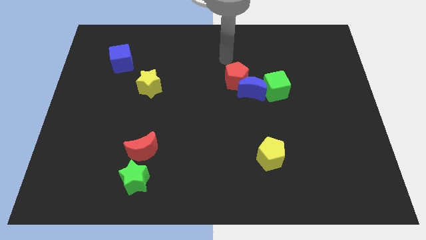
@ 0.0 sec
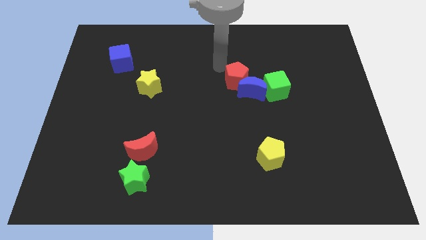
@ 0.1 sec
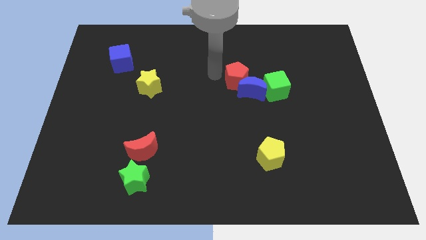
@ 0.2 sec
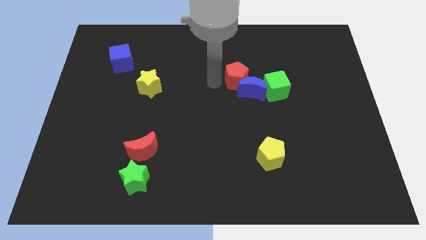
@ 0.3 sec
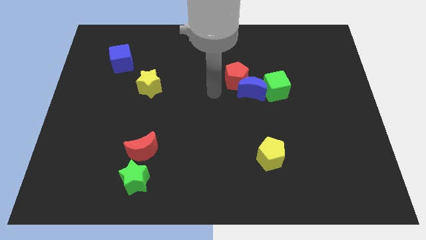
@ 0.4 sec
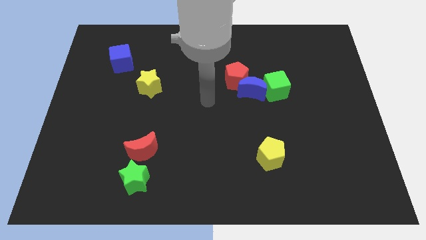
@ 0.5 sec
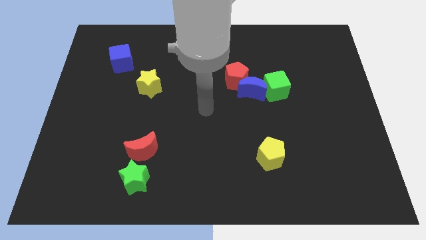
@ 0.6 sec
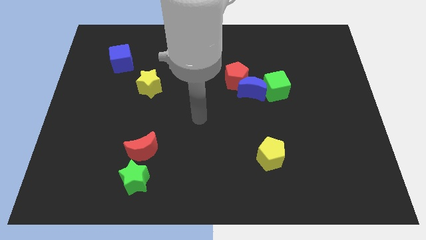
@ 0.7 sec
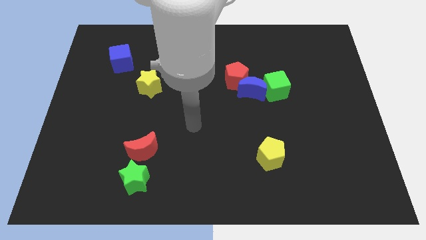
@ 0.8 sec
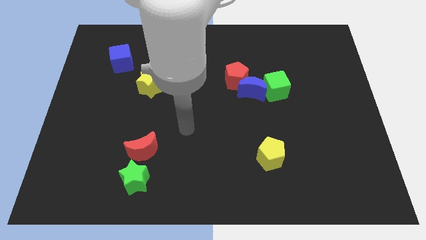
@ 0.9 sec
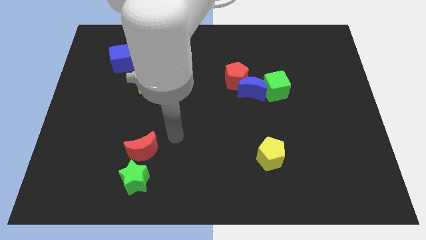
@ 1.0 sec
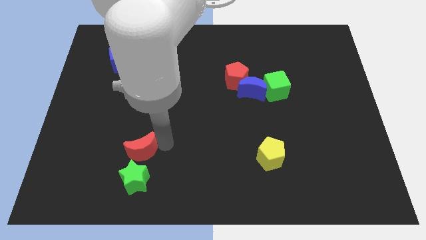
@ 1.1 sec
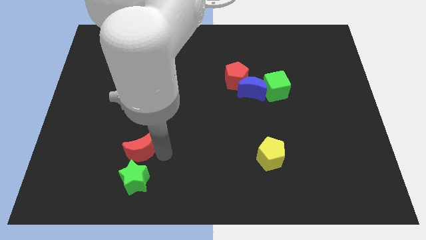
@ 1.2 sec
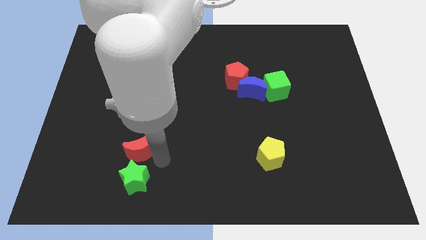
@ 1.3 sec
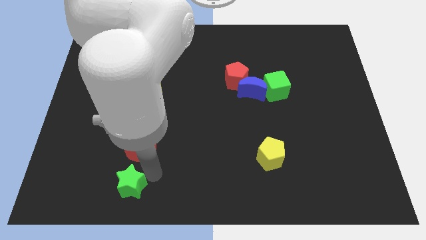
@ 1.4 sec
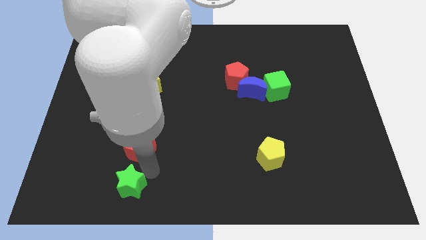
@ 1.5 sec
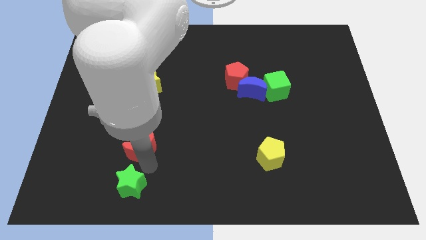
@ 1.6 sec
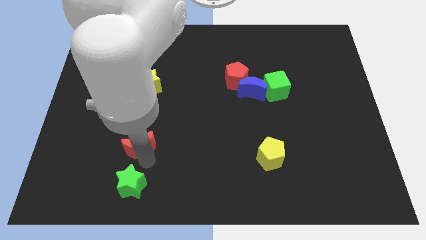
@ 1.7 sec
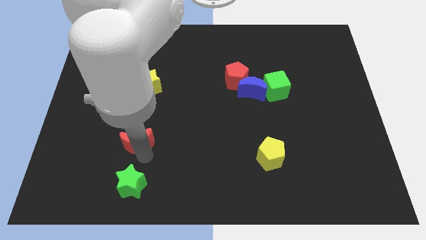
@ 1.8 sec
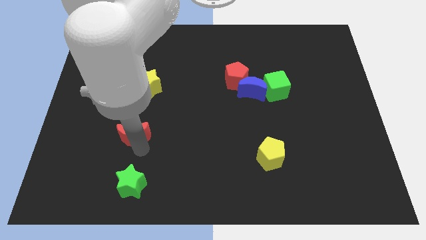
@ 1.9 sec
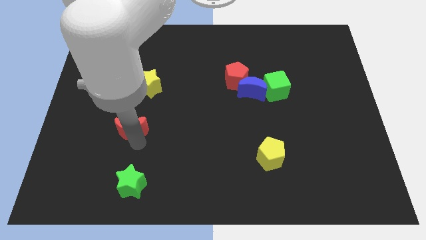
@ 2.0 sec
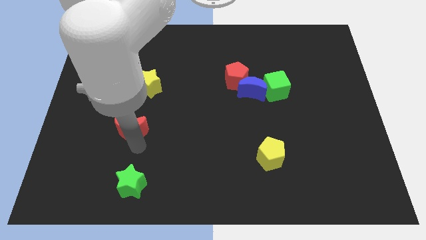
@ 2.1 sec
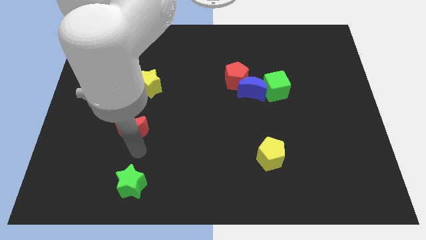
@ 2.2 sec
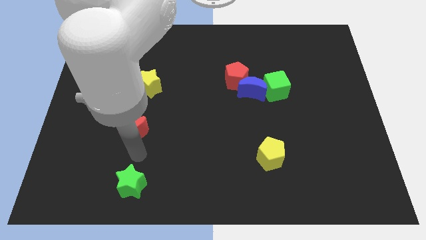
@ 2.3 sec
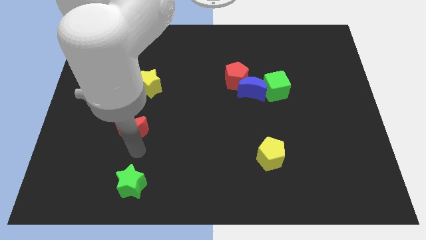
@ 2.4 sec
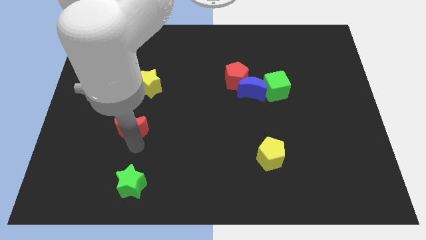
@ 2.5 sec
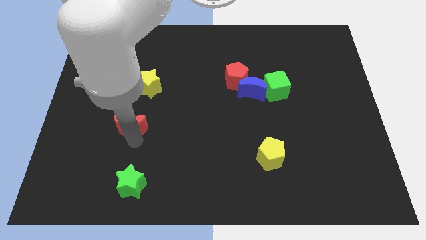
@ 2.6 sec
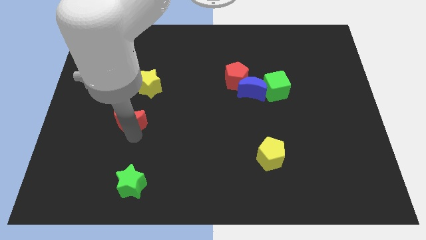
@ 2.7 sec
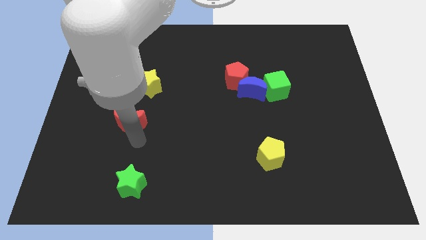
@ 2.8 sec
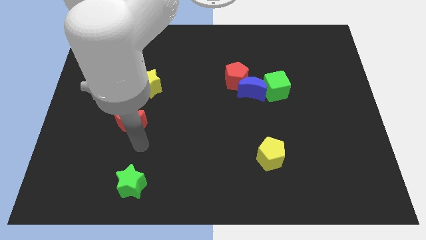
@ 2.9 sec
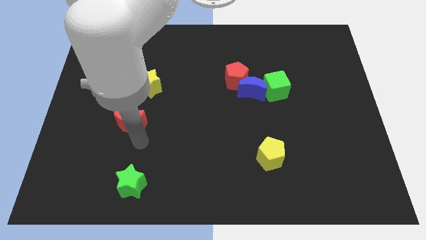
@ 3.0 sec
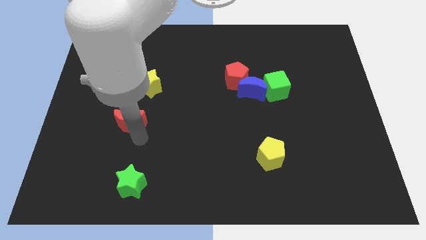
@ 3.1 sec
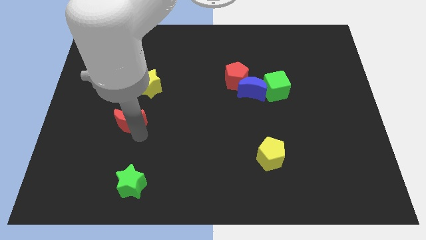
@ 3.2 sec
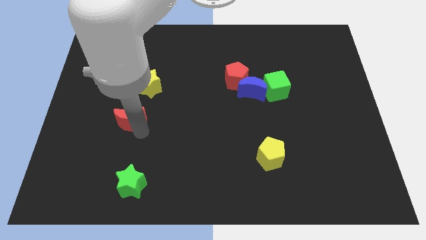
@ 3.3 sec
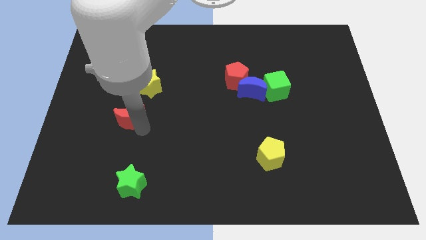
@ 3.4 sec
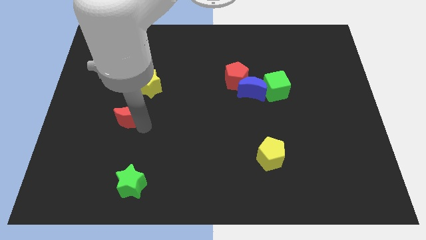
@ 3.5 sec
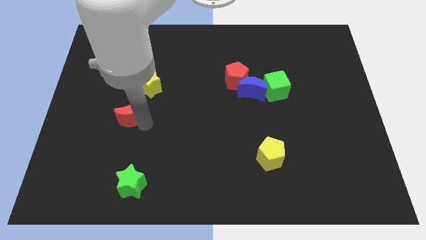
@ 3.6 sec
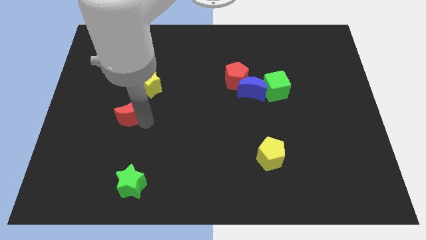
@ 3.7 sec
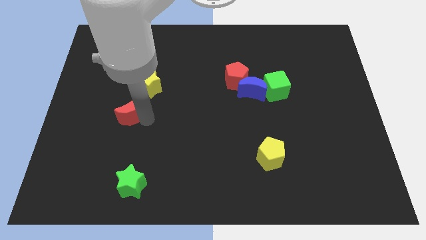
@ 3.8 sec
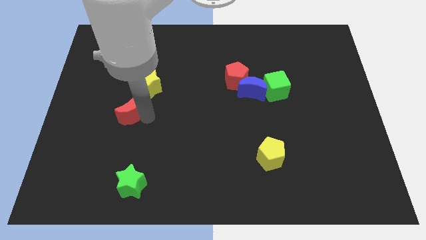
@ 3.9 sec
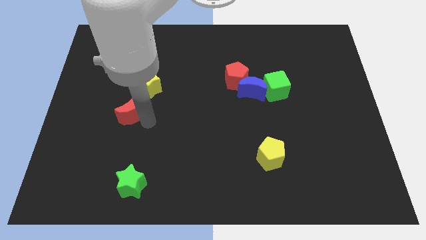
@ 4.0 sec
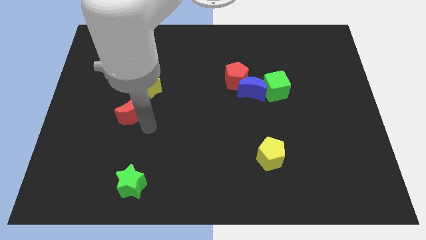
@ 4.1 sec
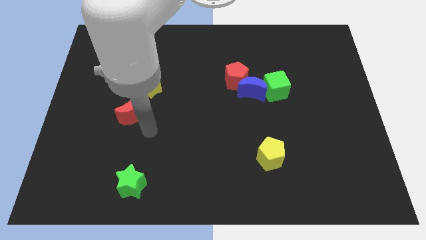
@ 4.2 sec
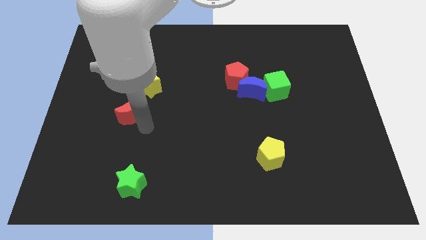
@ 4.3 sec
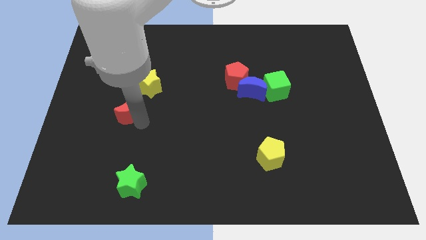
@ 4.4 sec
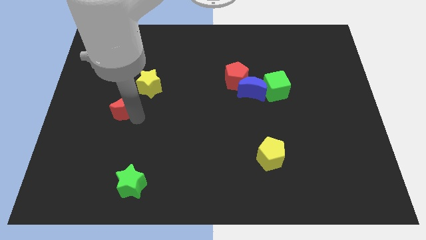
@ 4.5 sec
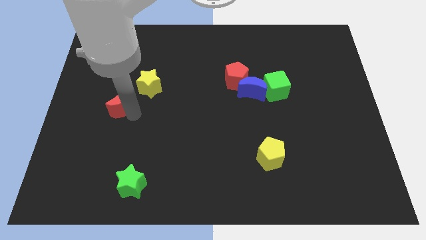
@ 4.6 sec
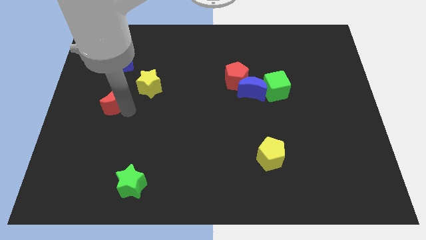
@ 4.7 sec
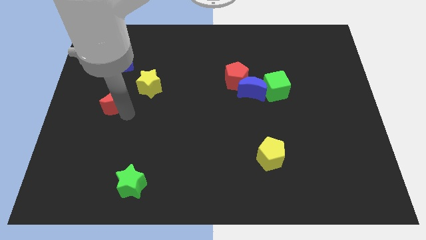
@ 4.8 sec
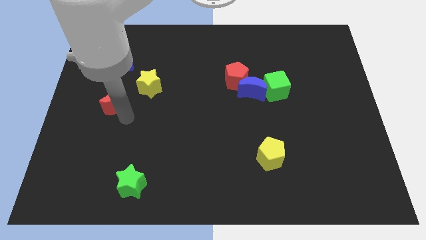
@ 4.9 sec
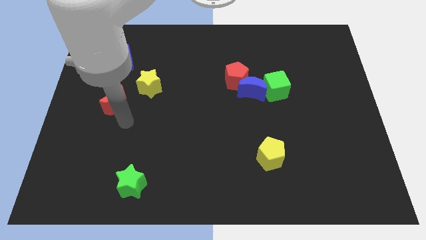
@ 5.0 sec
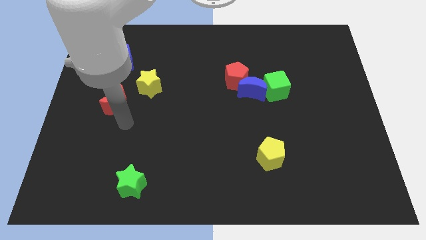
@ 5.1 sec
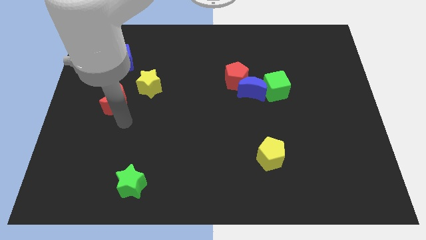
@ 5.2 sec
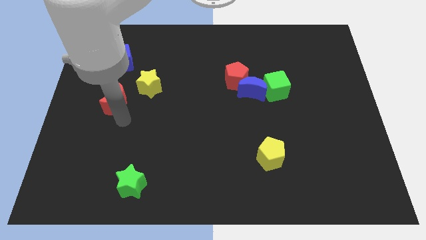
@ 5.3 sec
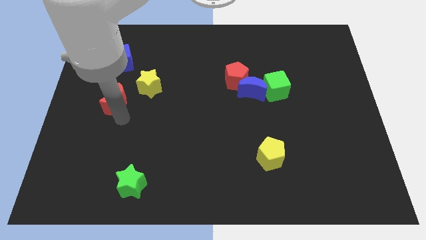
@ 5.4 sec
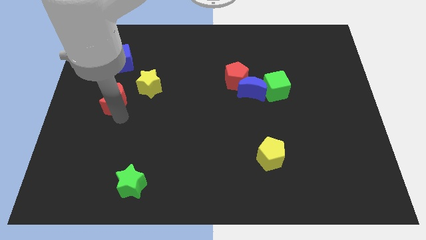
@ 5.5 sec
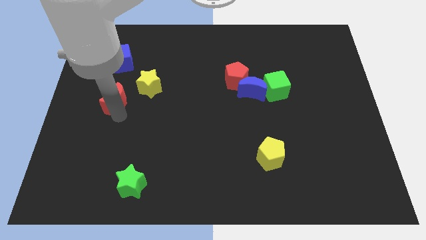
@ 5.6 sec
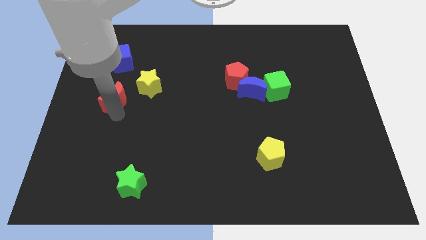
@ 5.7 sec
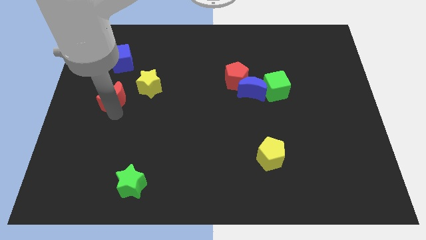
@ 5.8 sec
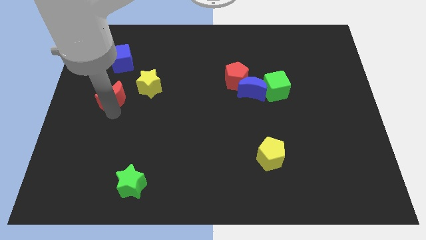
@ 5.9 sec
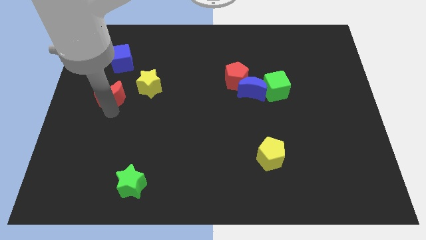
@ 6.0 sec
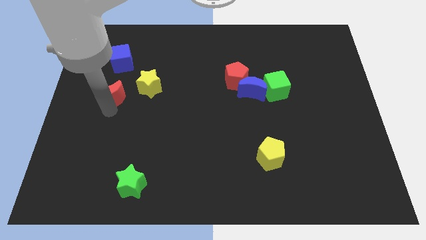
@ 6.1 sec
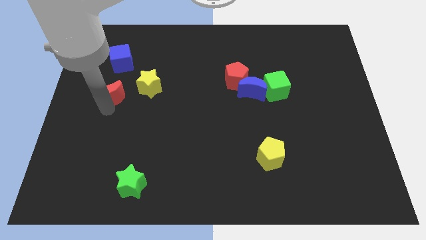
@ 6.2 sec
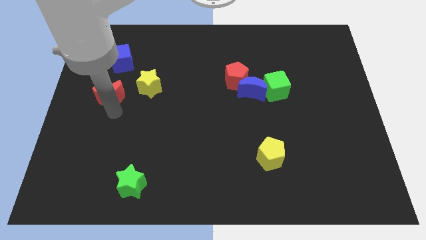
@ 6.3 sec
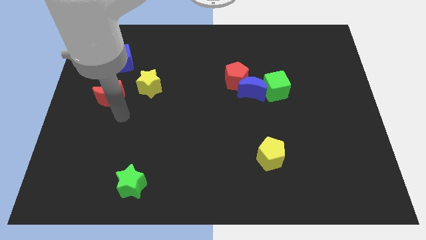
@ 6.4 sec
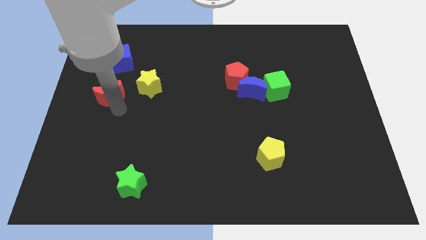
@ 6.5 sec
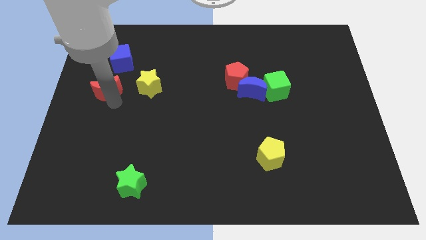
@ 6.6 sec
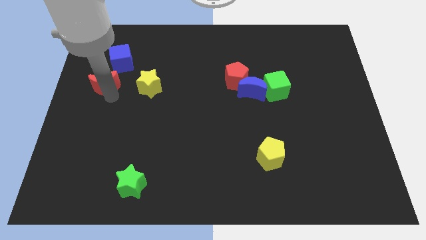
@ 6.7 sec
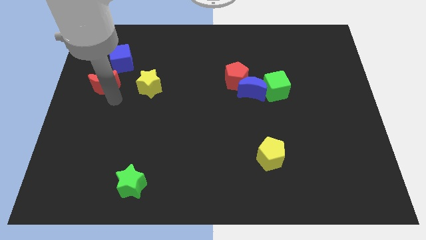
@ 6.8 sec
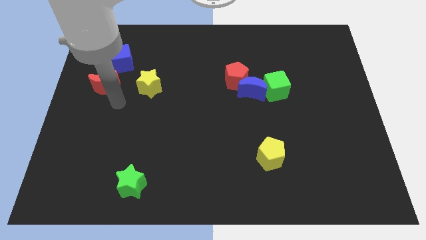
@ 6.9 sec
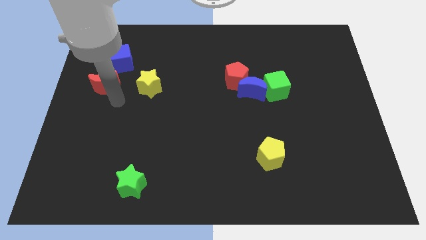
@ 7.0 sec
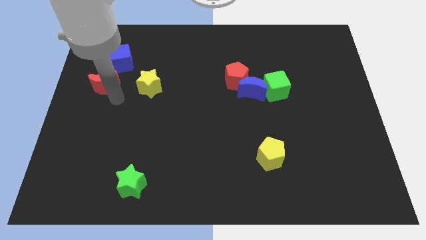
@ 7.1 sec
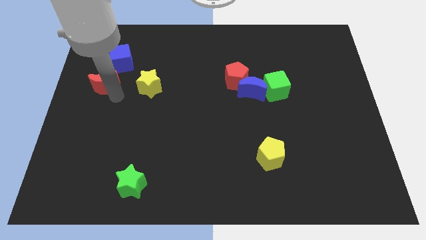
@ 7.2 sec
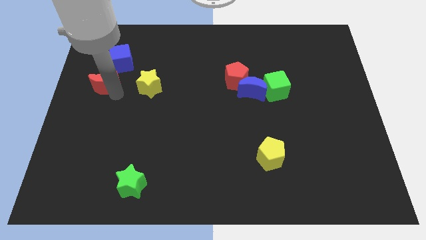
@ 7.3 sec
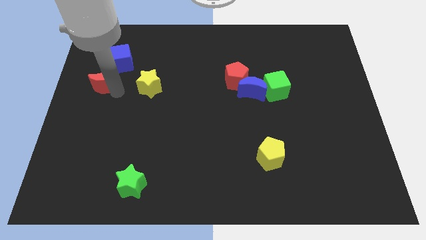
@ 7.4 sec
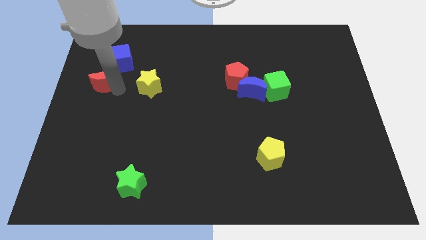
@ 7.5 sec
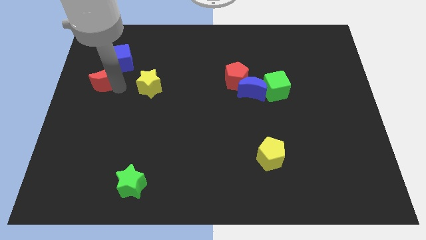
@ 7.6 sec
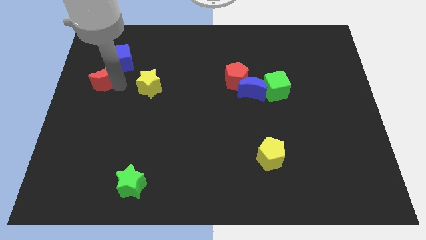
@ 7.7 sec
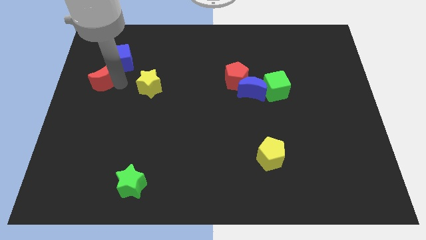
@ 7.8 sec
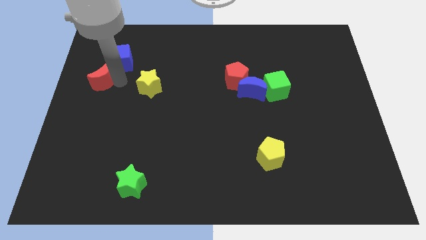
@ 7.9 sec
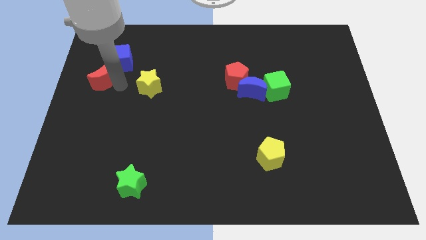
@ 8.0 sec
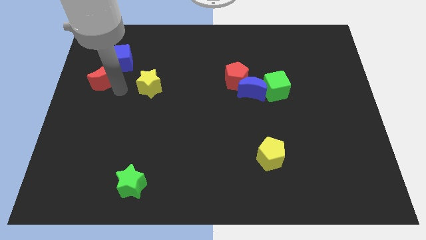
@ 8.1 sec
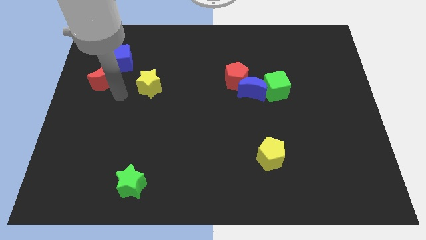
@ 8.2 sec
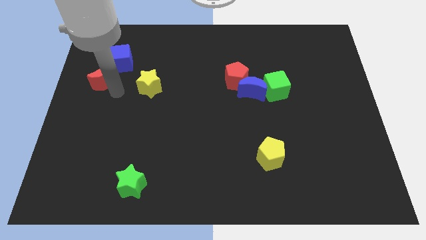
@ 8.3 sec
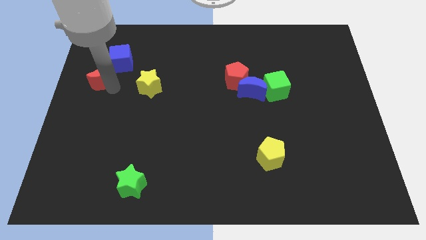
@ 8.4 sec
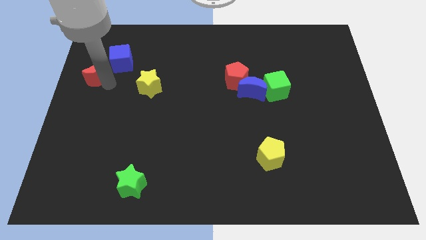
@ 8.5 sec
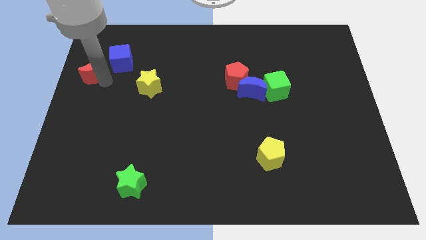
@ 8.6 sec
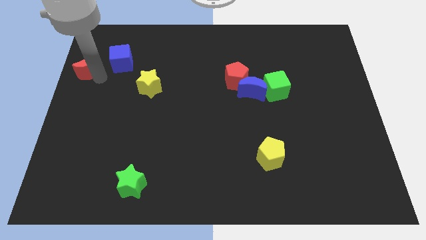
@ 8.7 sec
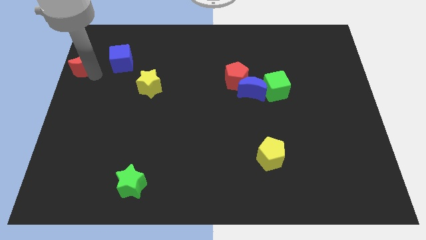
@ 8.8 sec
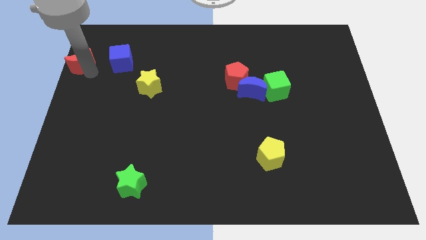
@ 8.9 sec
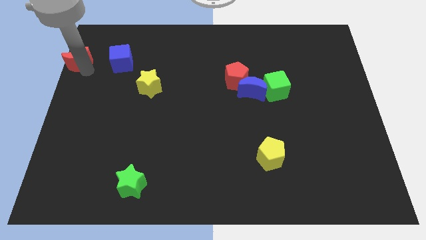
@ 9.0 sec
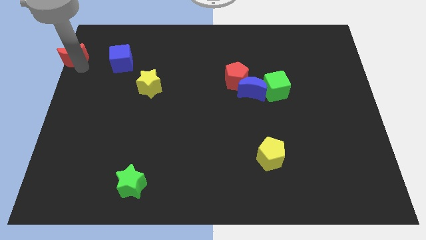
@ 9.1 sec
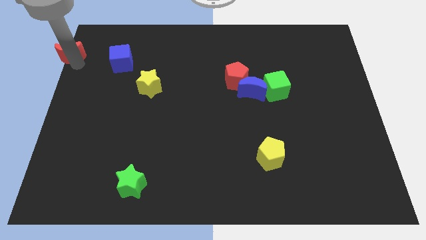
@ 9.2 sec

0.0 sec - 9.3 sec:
slide the red moon to the top left
